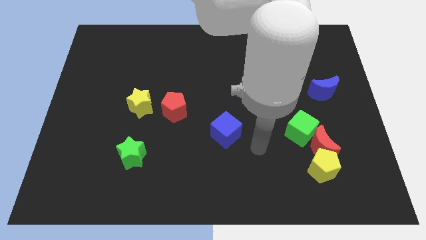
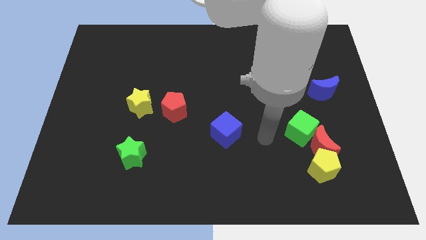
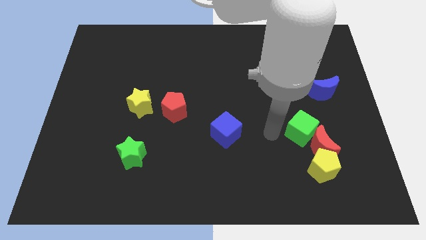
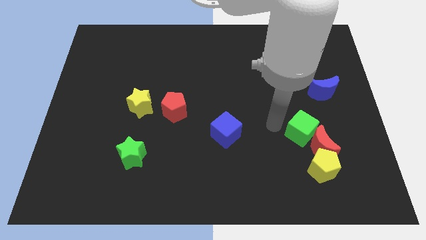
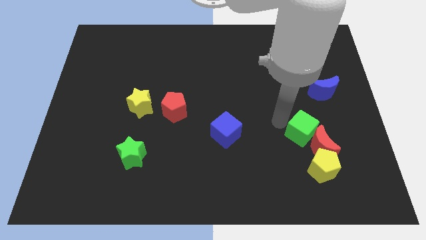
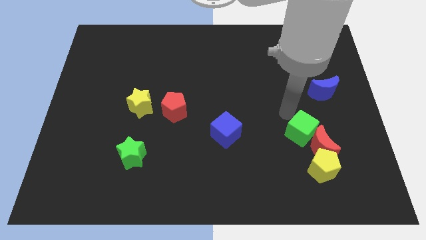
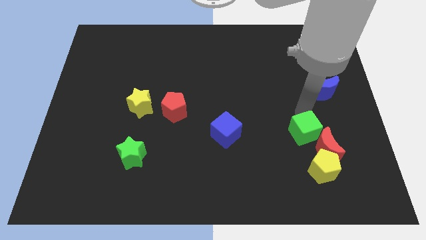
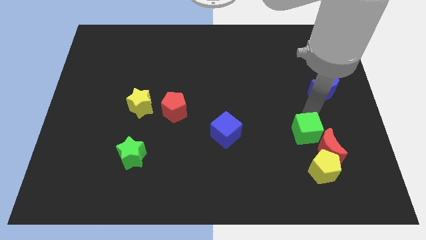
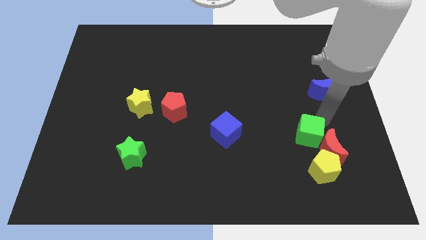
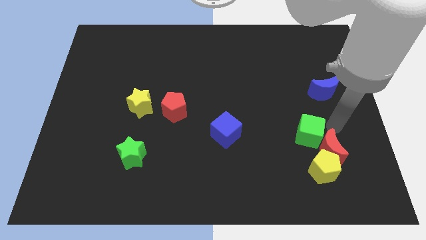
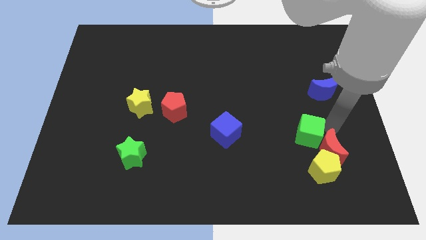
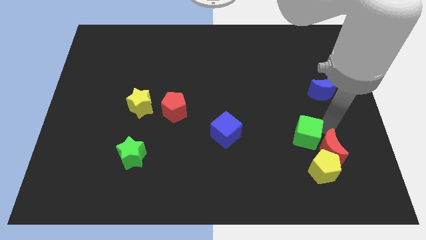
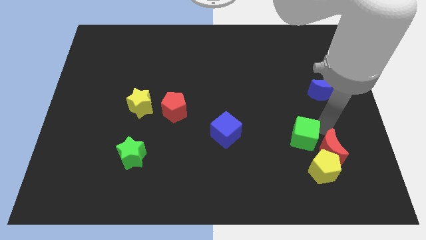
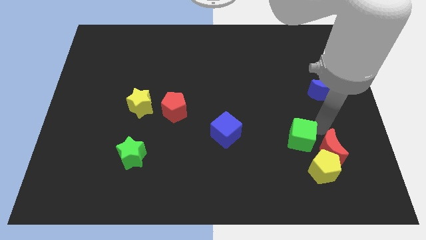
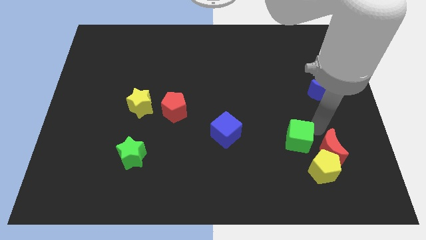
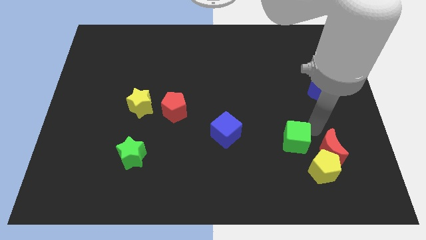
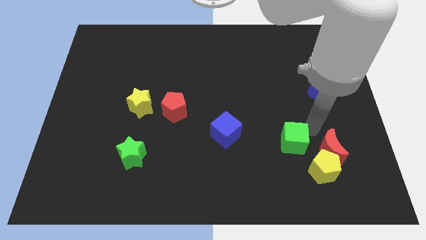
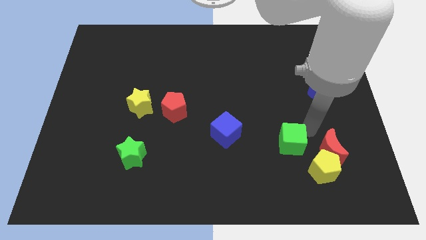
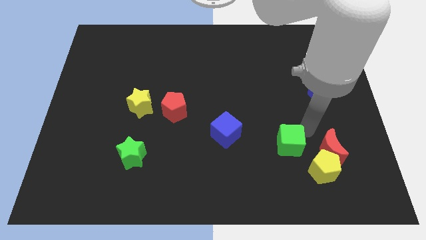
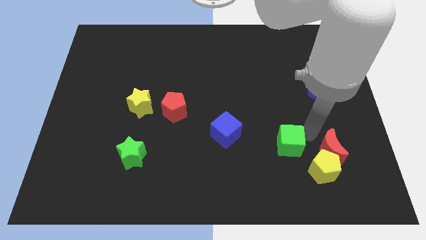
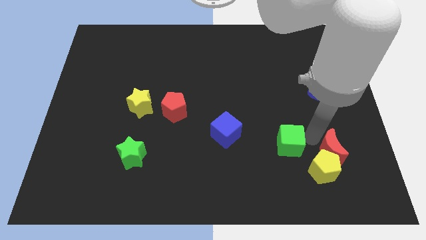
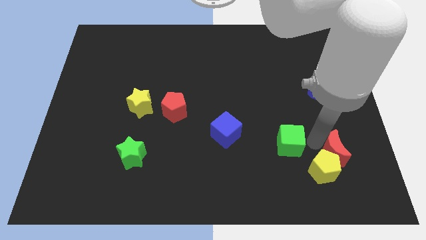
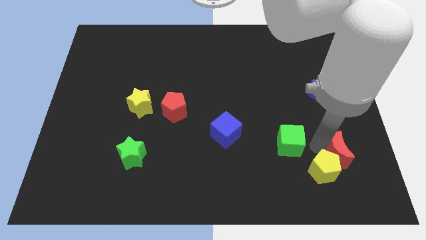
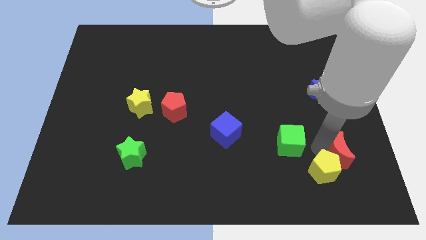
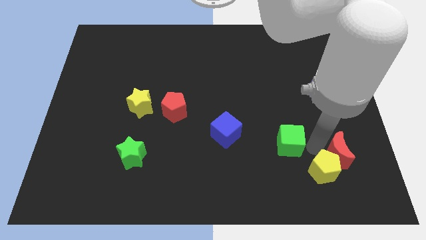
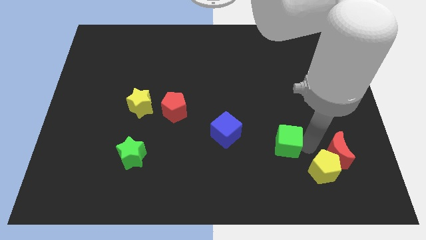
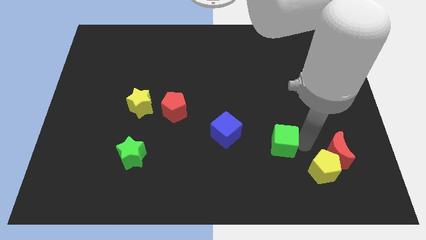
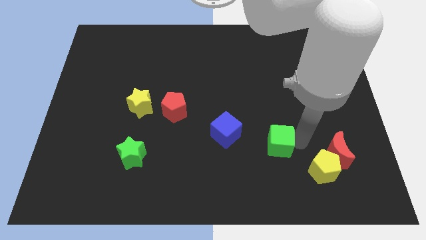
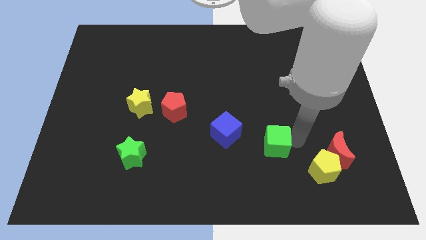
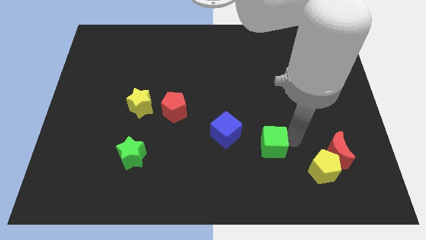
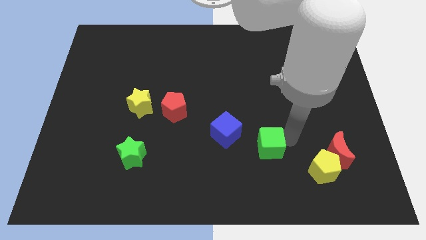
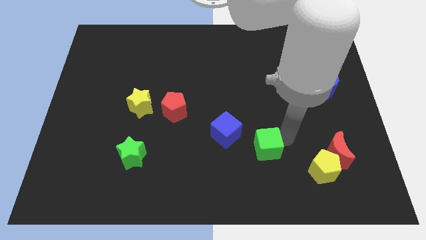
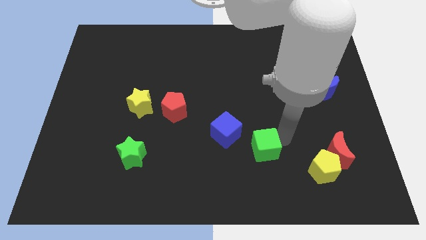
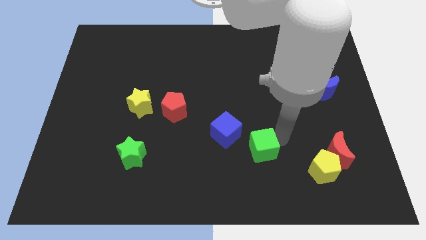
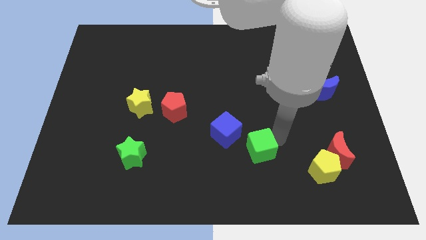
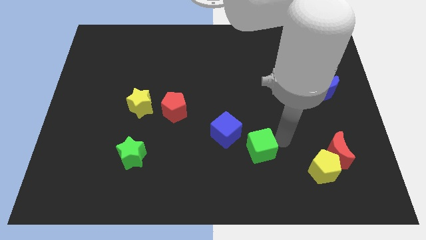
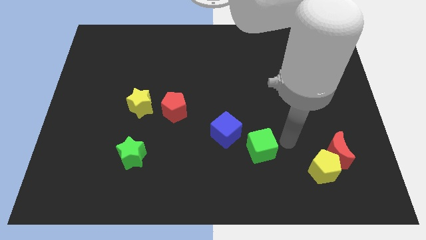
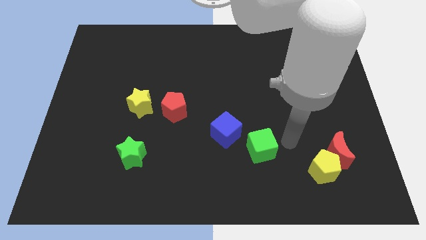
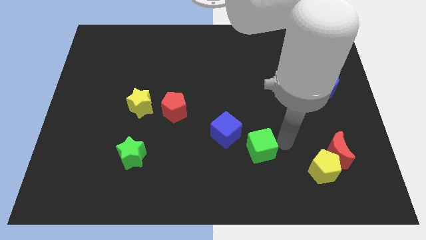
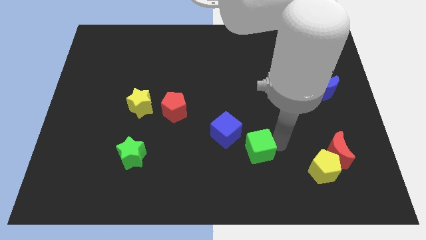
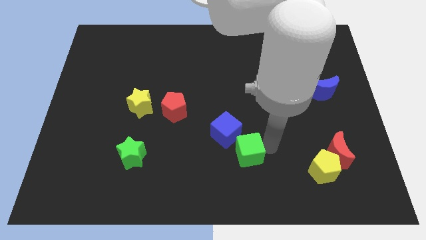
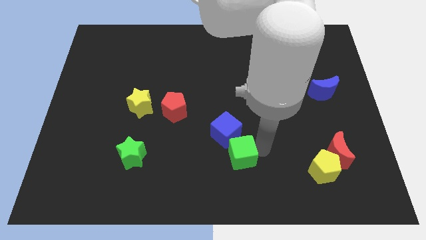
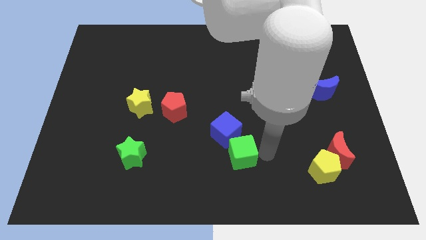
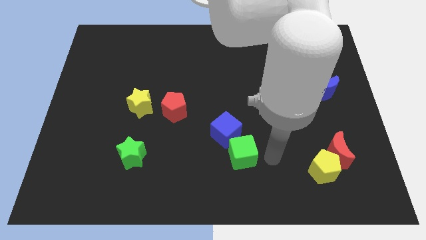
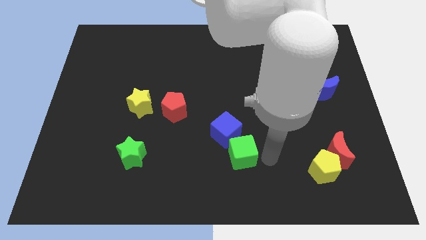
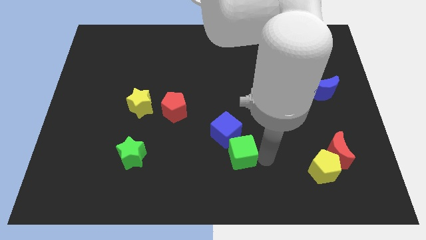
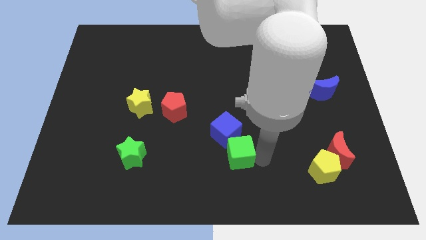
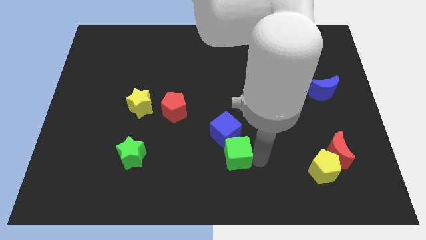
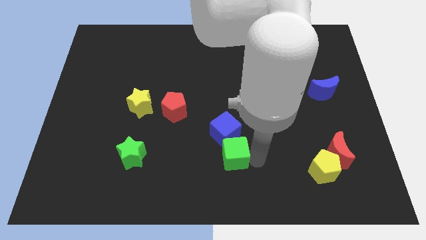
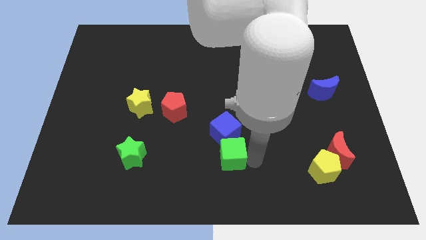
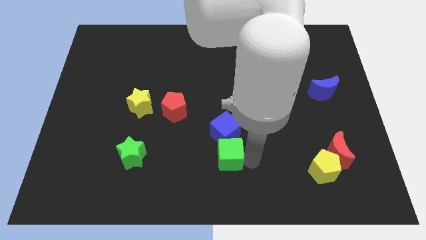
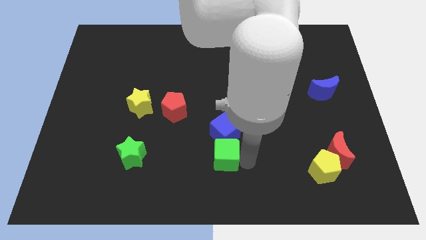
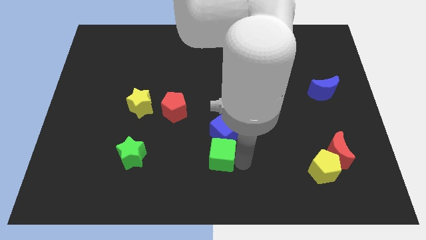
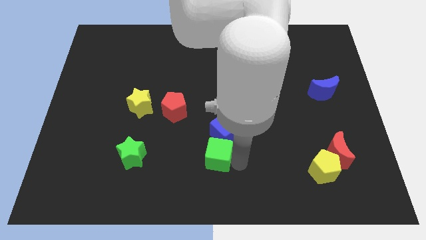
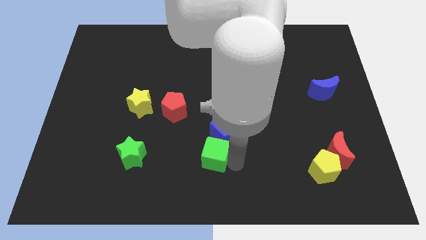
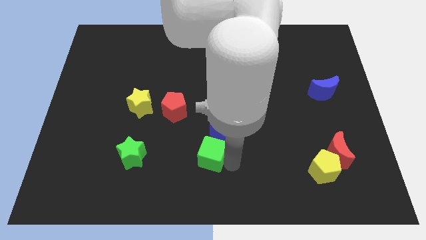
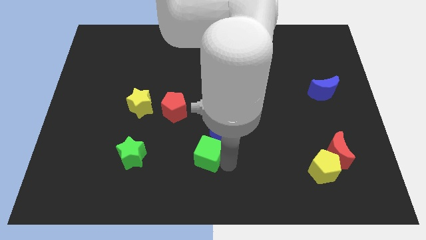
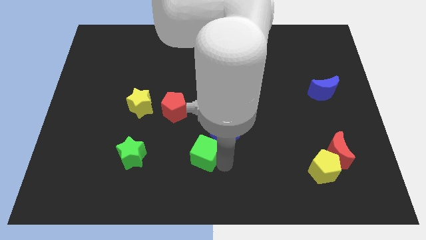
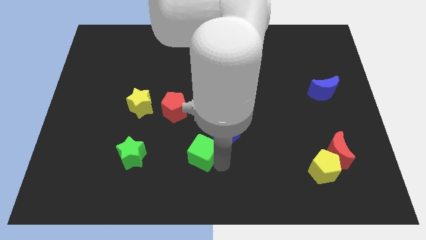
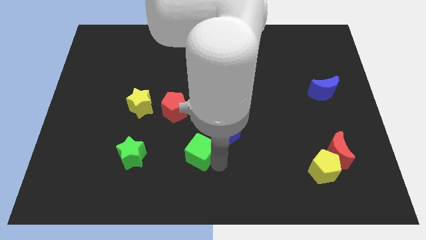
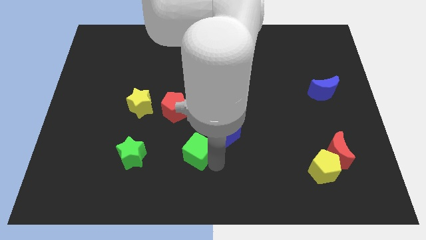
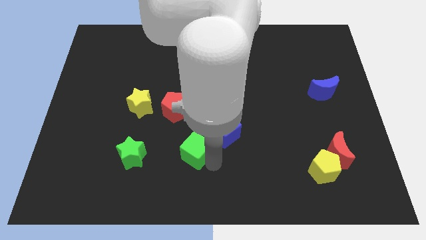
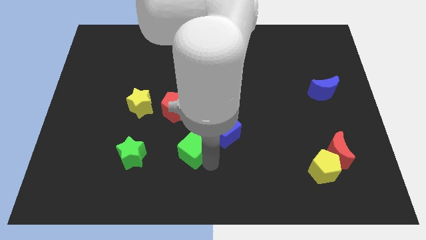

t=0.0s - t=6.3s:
move the green cube just left of the blue cube

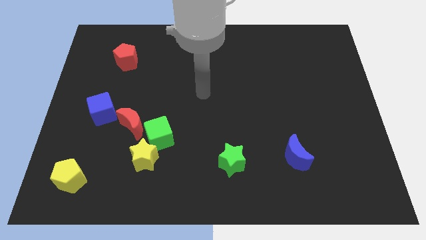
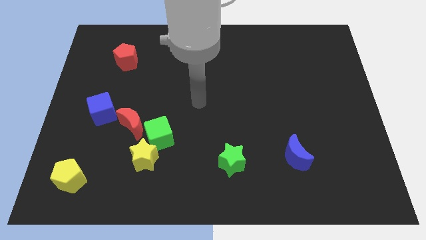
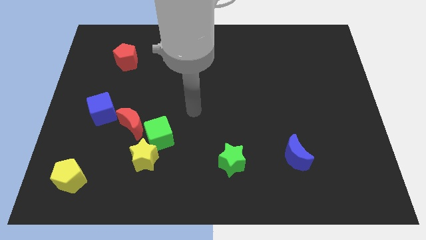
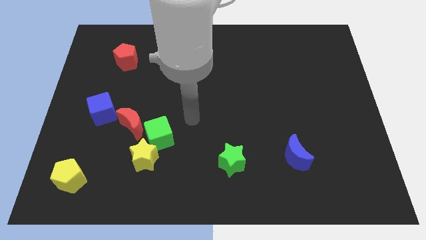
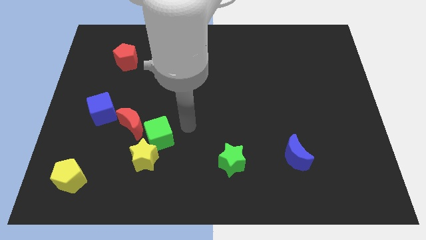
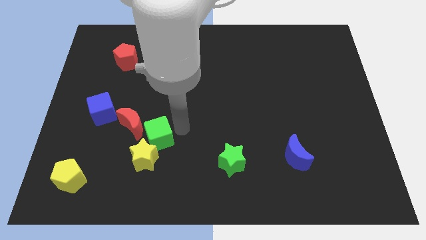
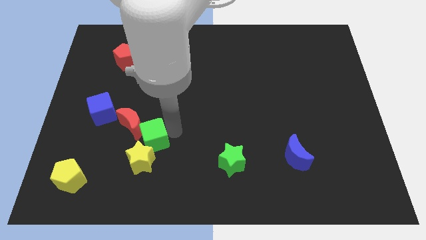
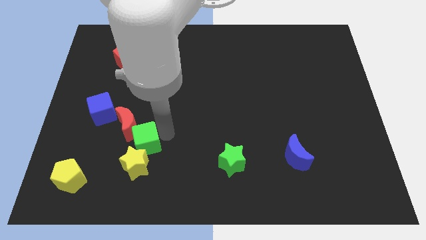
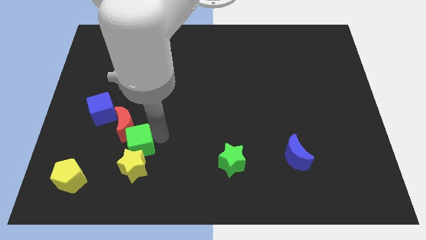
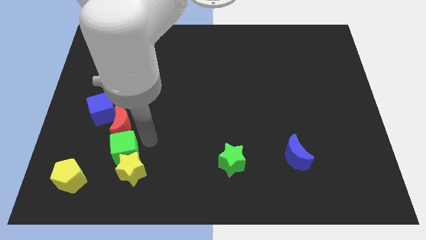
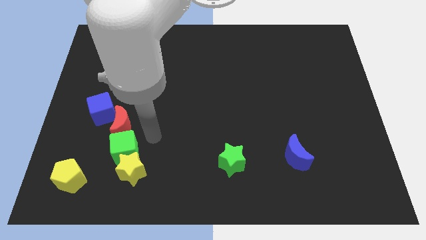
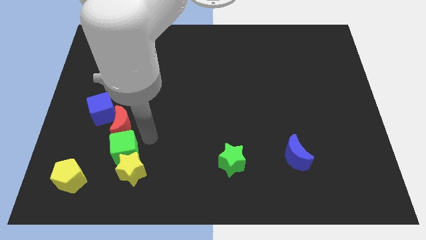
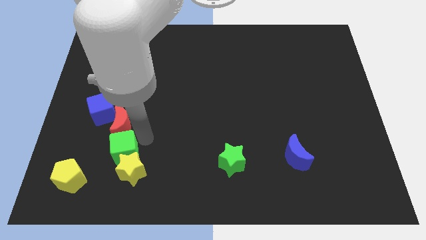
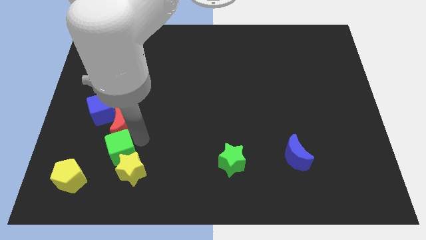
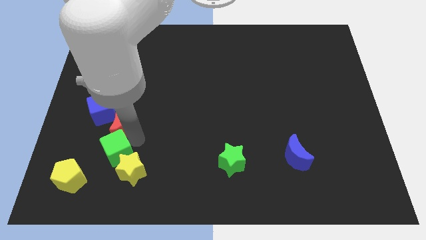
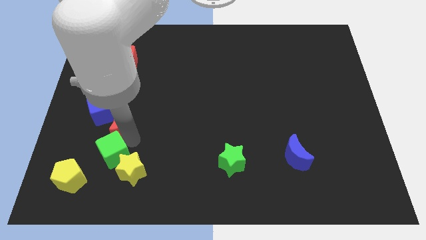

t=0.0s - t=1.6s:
move the green cube left of the yellow star
